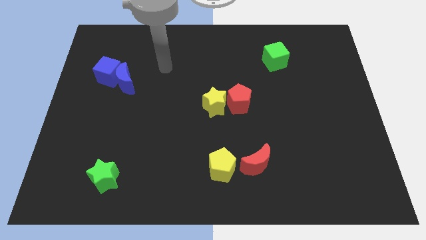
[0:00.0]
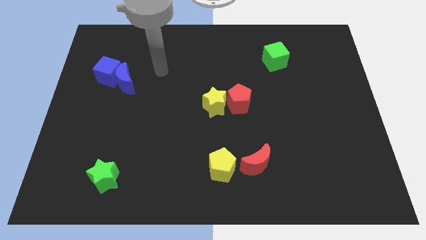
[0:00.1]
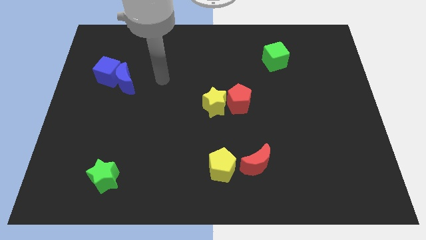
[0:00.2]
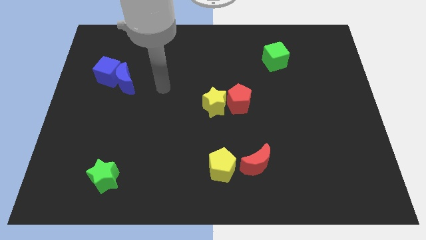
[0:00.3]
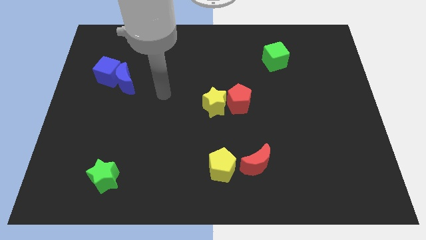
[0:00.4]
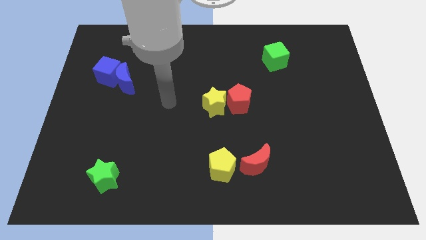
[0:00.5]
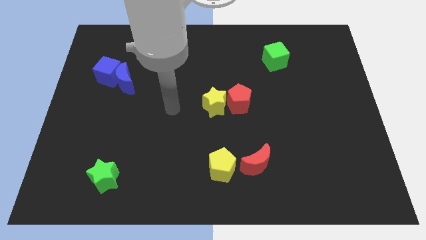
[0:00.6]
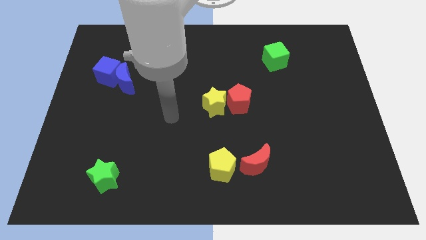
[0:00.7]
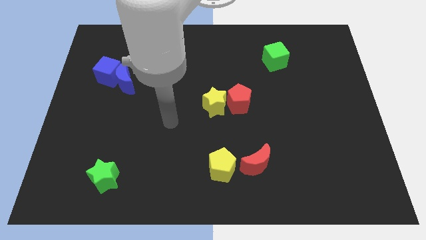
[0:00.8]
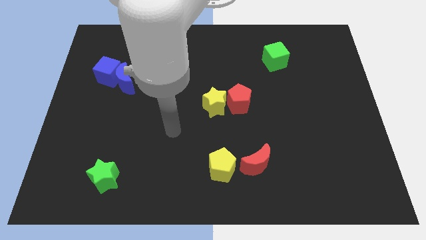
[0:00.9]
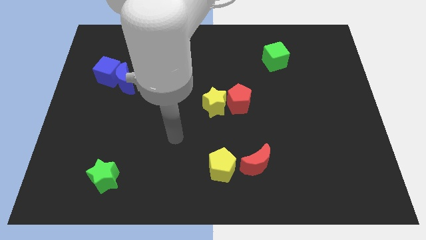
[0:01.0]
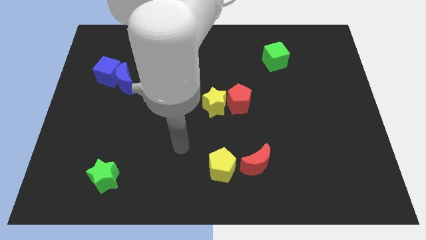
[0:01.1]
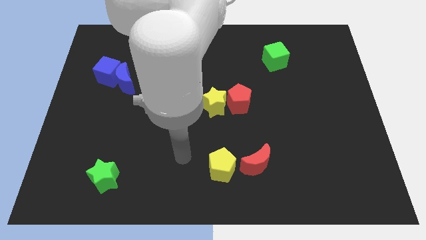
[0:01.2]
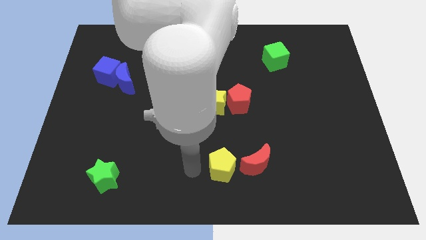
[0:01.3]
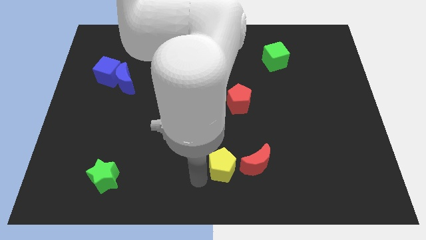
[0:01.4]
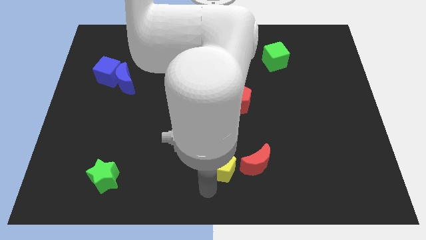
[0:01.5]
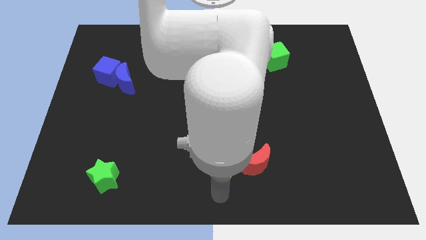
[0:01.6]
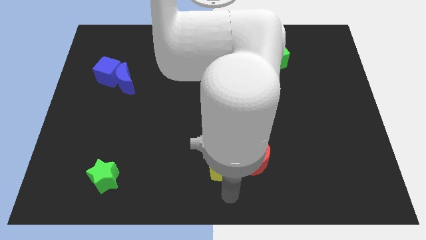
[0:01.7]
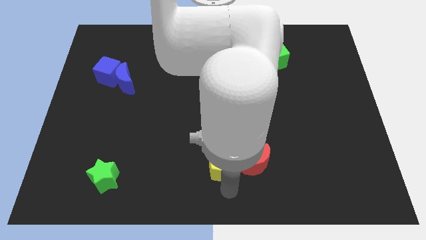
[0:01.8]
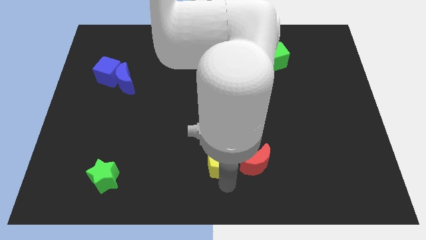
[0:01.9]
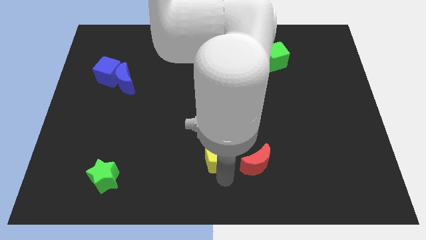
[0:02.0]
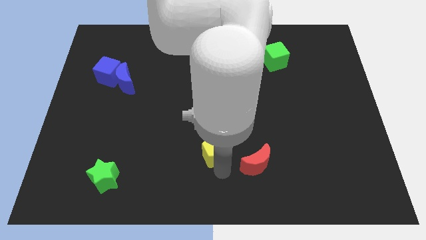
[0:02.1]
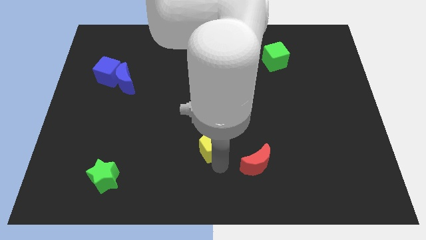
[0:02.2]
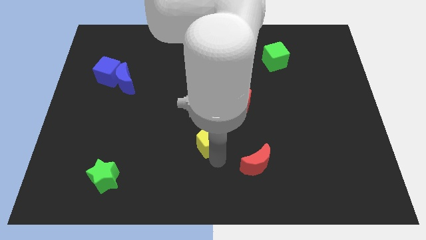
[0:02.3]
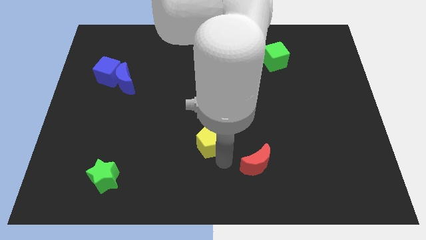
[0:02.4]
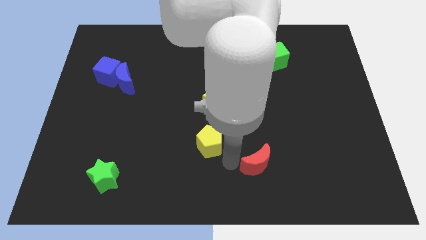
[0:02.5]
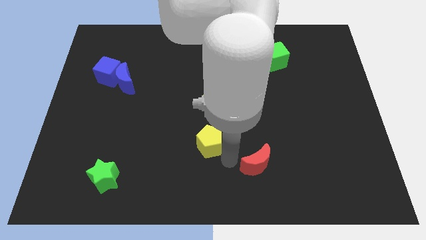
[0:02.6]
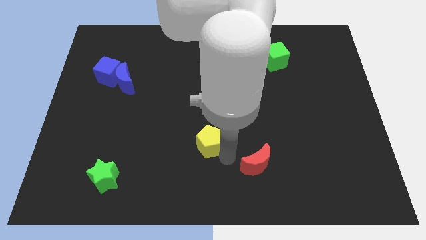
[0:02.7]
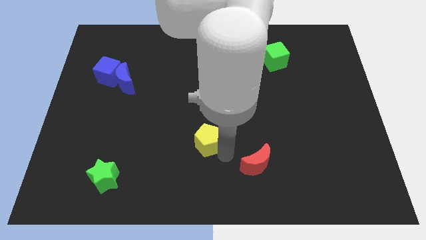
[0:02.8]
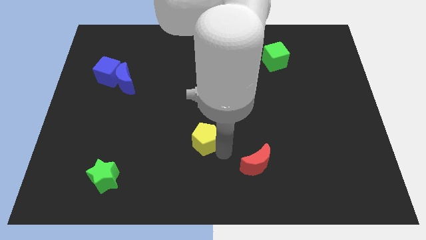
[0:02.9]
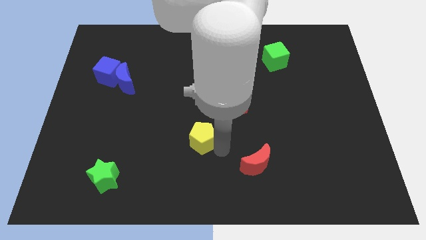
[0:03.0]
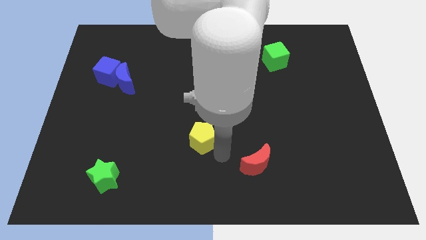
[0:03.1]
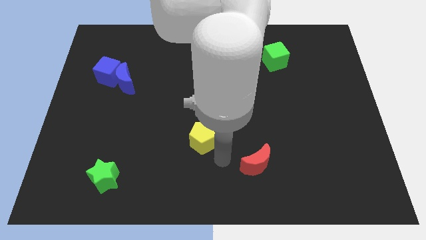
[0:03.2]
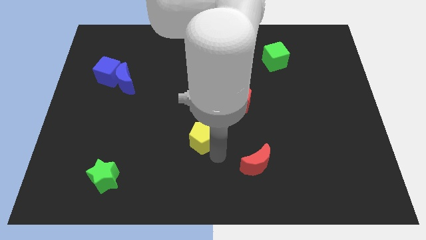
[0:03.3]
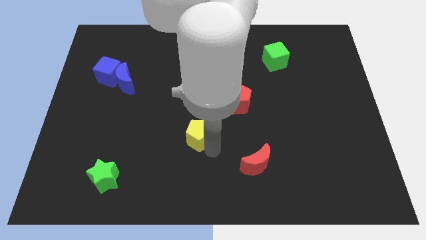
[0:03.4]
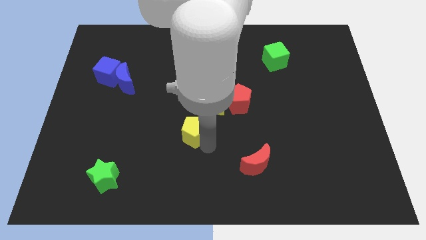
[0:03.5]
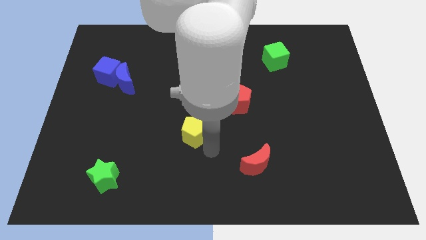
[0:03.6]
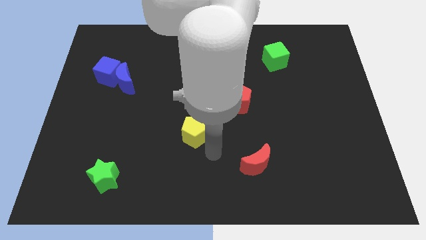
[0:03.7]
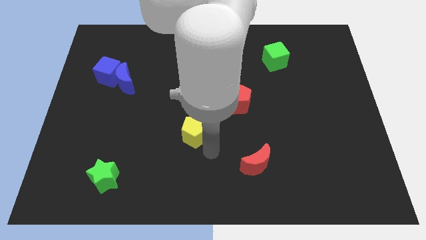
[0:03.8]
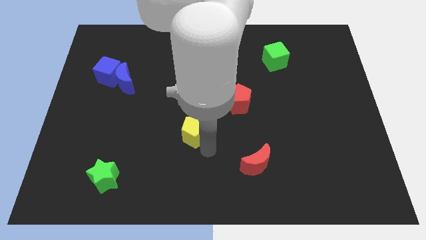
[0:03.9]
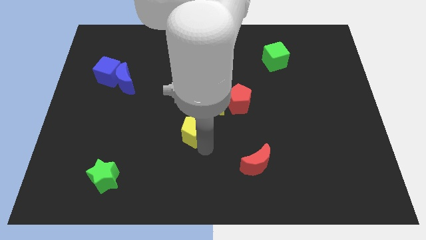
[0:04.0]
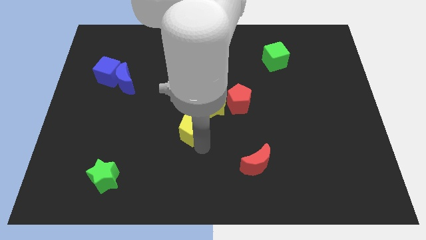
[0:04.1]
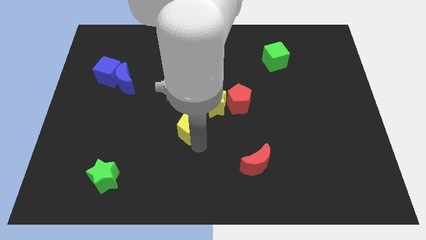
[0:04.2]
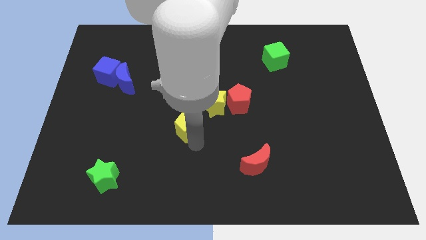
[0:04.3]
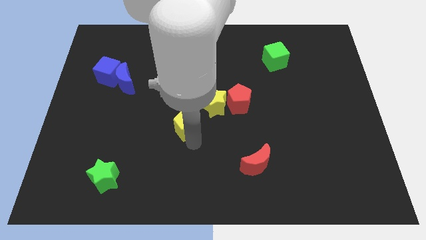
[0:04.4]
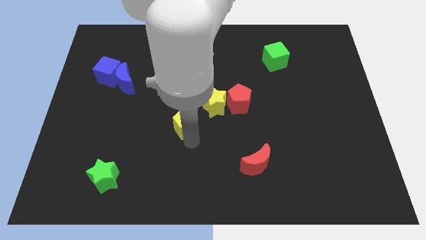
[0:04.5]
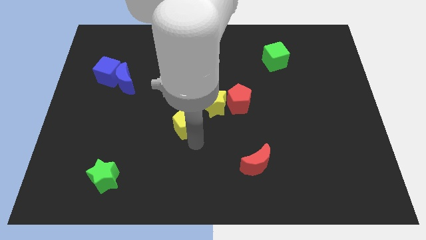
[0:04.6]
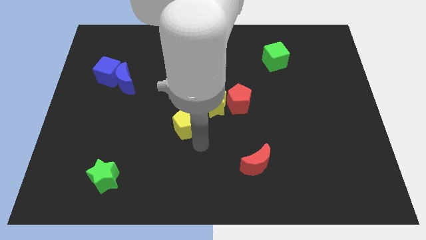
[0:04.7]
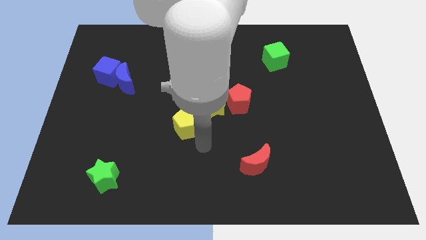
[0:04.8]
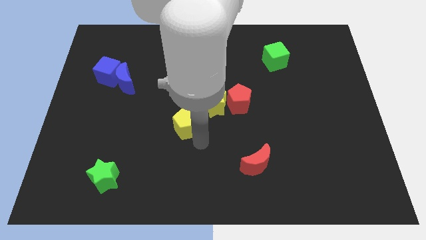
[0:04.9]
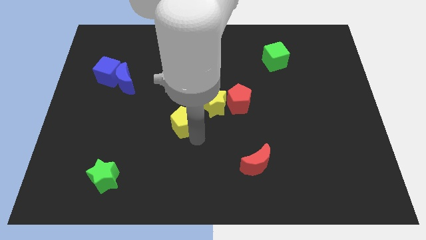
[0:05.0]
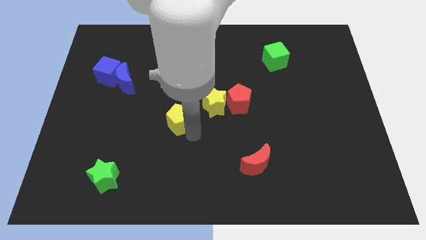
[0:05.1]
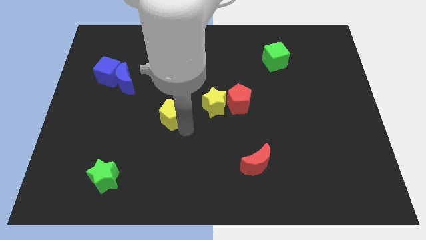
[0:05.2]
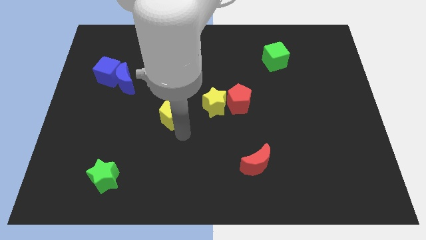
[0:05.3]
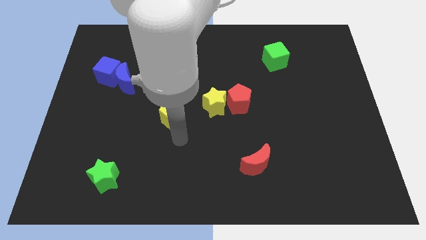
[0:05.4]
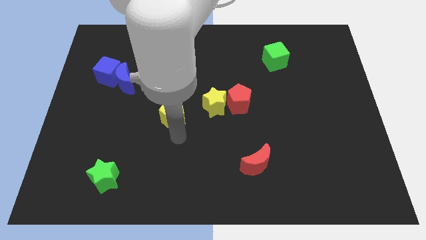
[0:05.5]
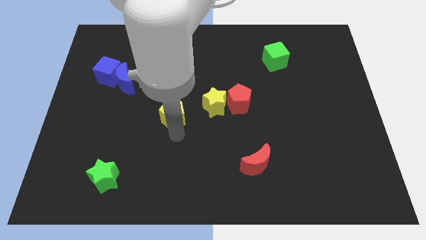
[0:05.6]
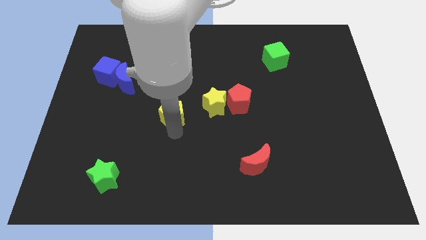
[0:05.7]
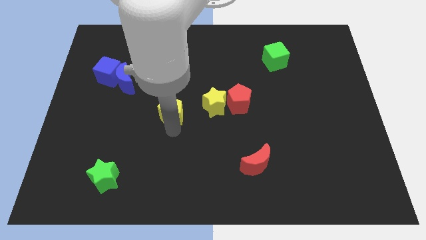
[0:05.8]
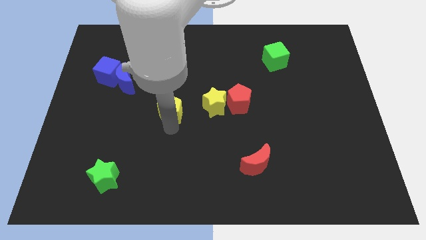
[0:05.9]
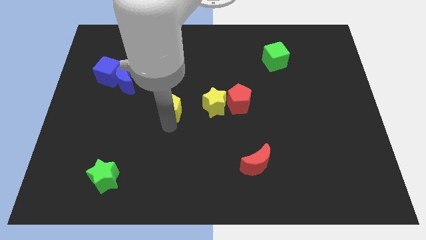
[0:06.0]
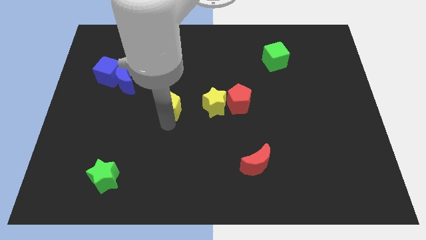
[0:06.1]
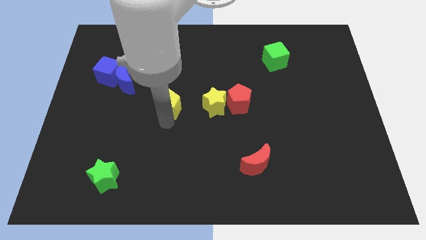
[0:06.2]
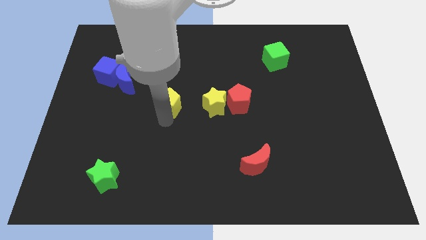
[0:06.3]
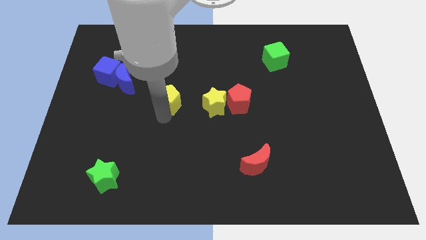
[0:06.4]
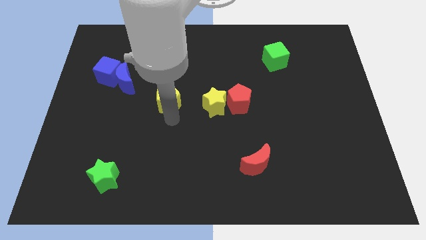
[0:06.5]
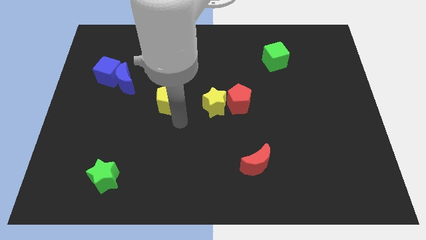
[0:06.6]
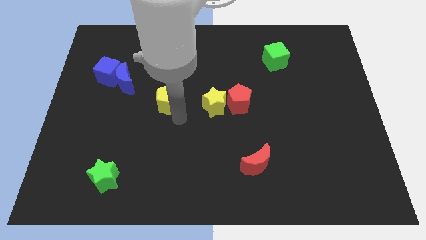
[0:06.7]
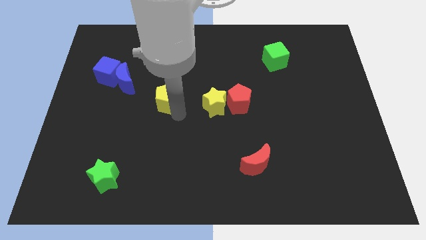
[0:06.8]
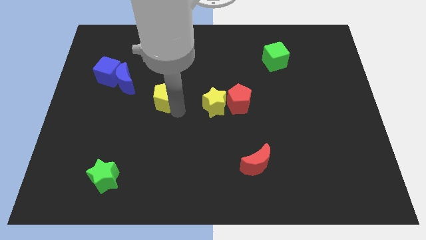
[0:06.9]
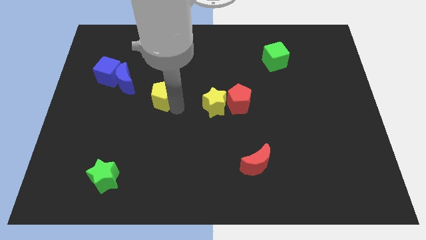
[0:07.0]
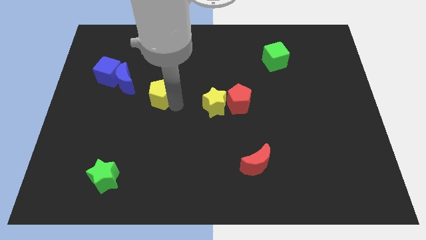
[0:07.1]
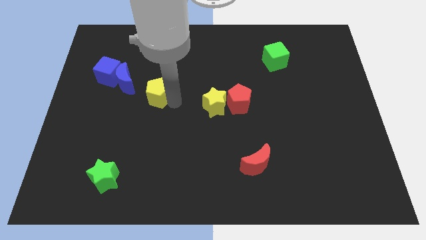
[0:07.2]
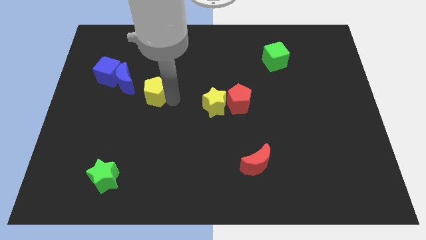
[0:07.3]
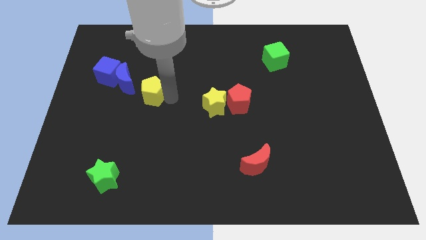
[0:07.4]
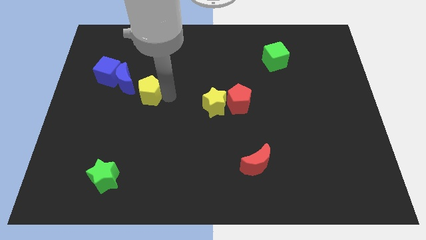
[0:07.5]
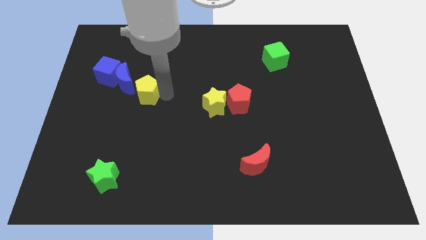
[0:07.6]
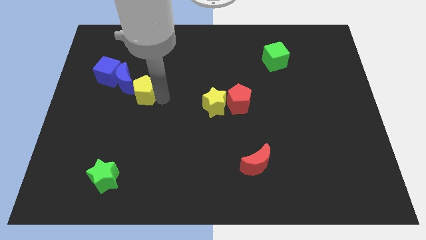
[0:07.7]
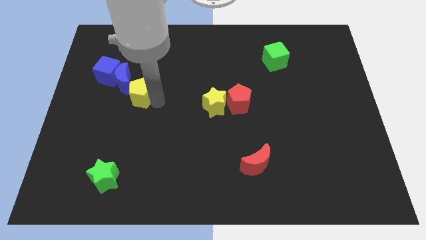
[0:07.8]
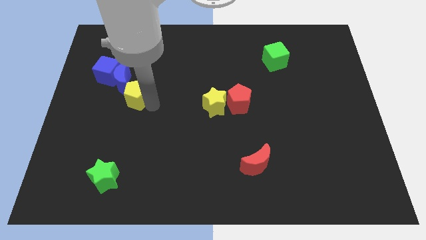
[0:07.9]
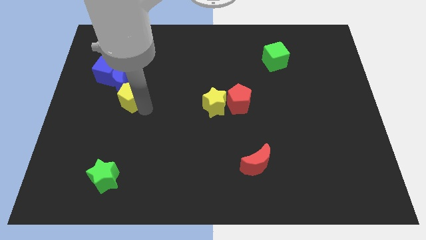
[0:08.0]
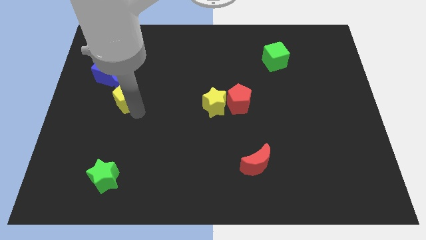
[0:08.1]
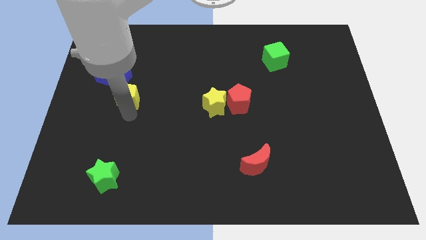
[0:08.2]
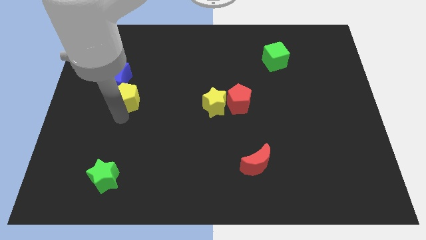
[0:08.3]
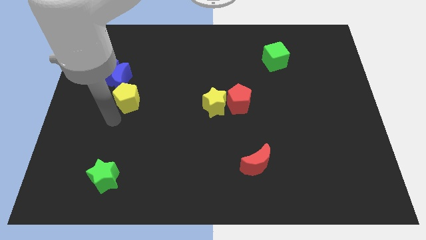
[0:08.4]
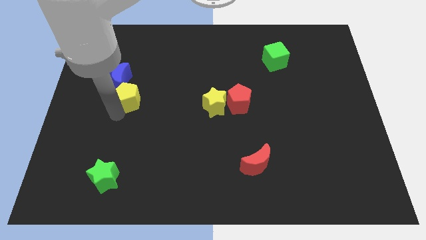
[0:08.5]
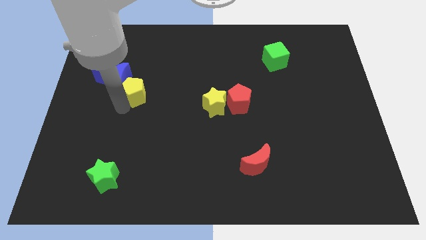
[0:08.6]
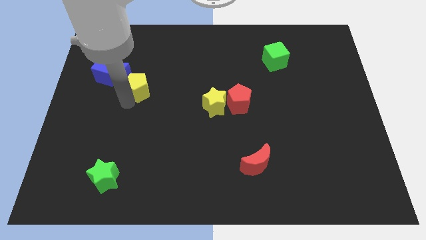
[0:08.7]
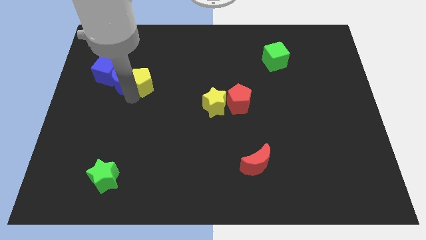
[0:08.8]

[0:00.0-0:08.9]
slide the yellow pentagon to the right of the blue cube
